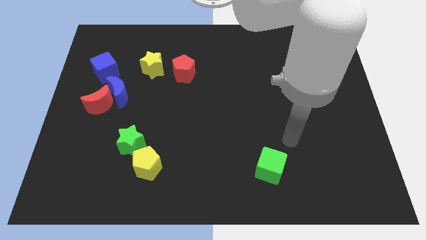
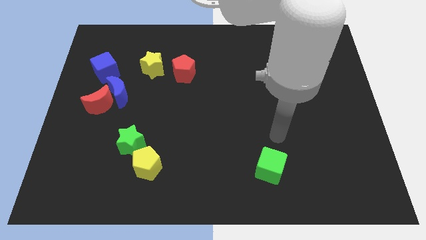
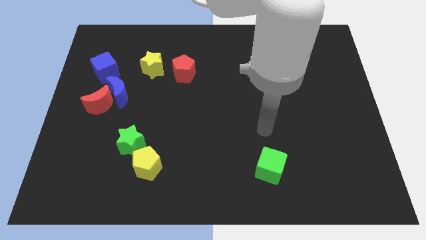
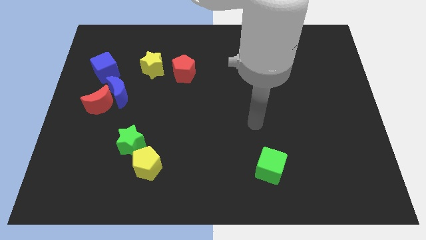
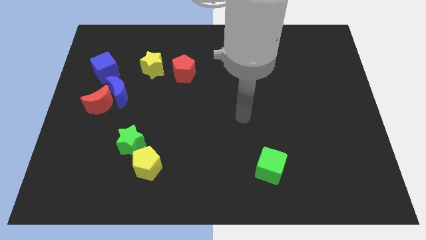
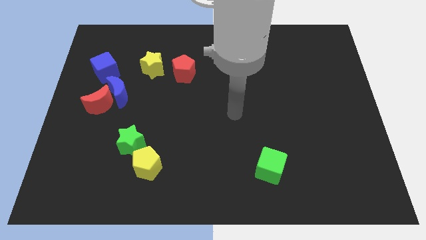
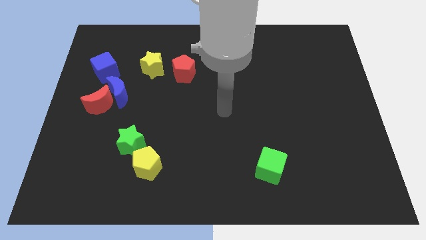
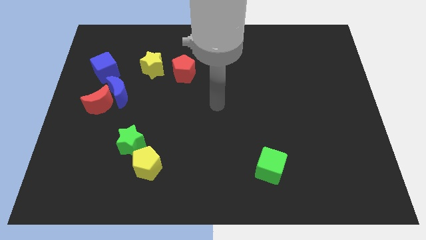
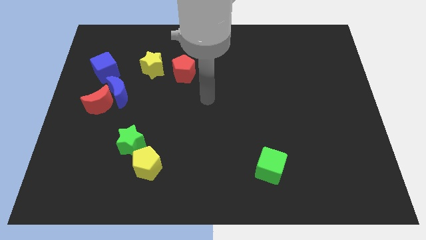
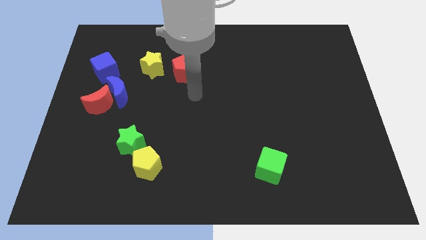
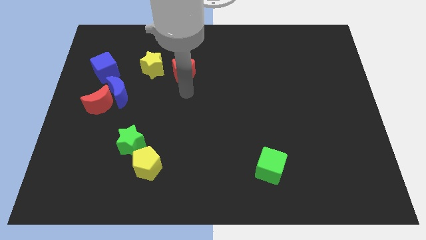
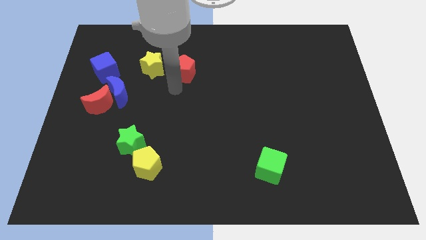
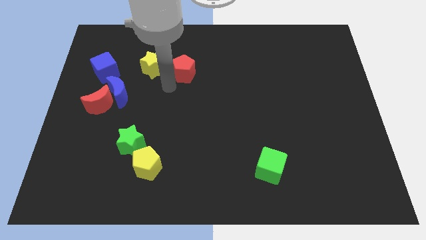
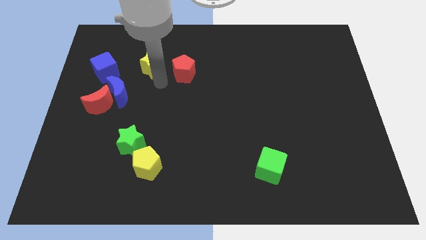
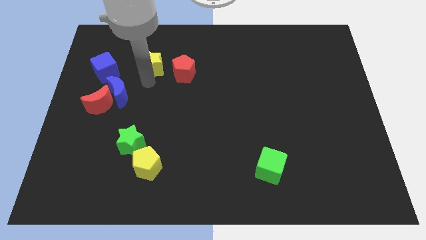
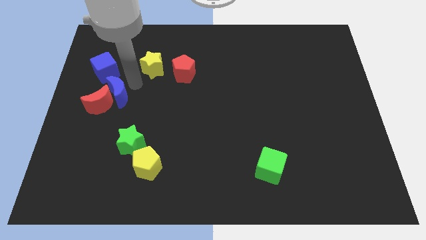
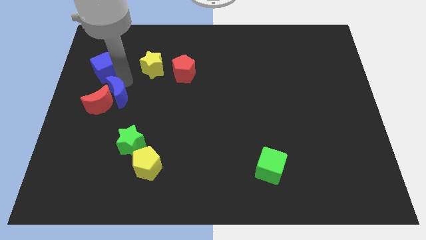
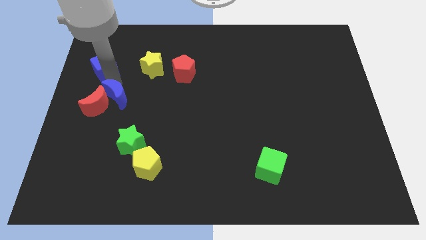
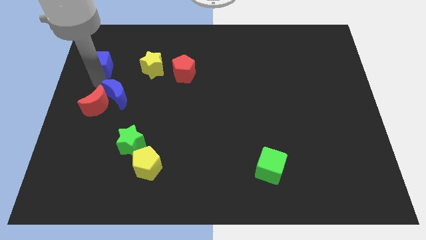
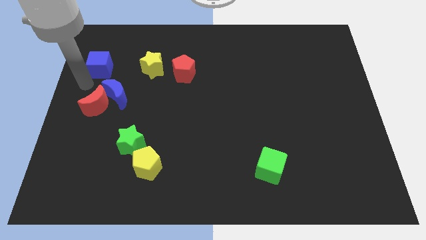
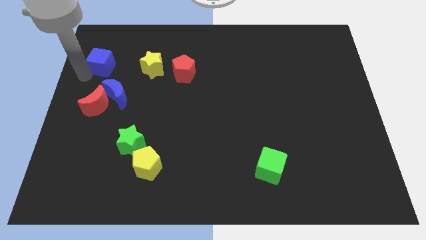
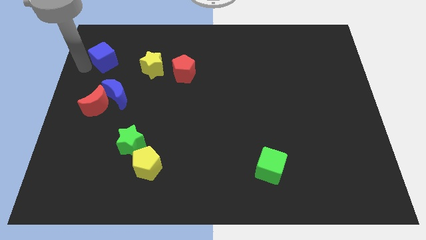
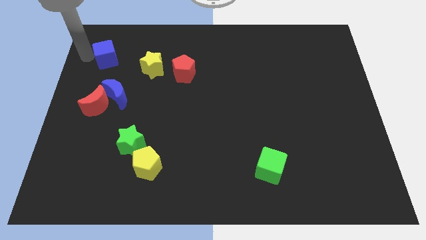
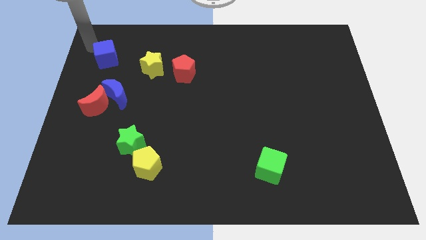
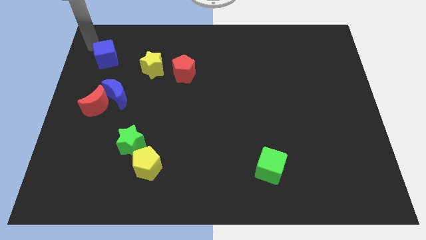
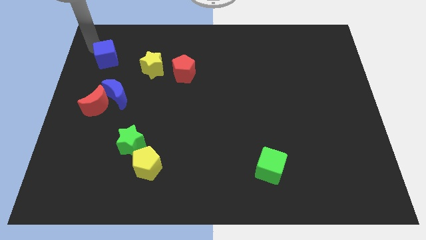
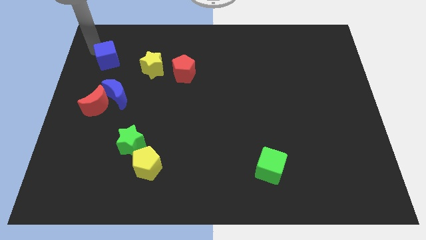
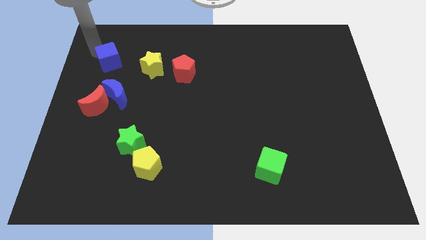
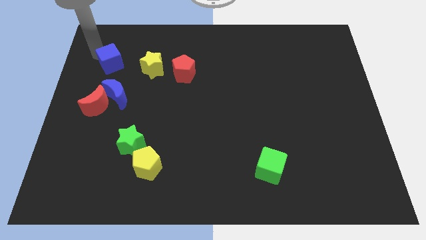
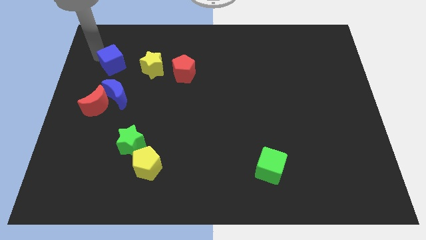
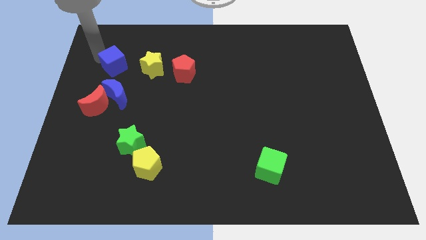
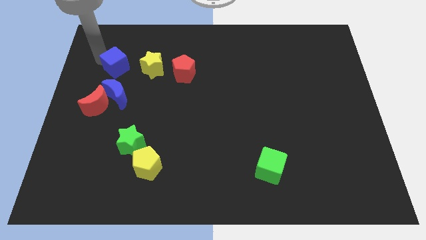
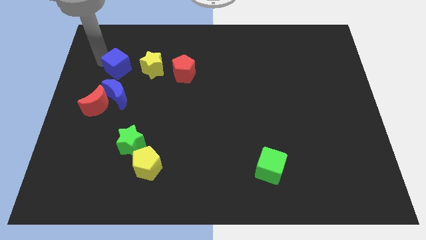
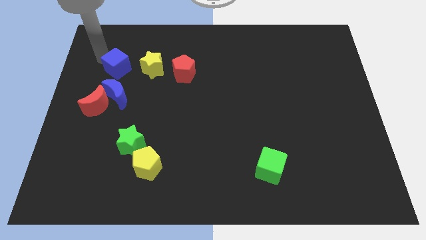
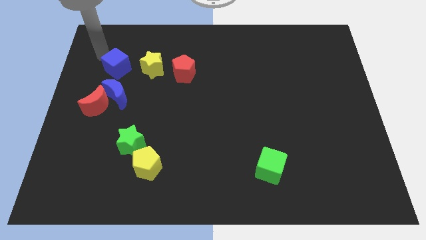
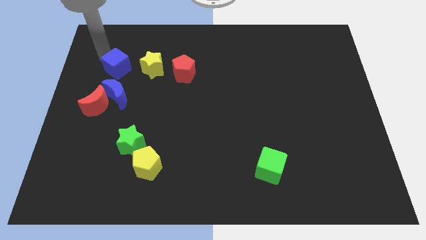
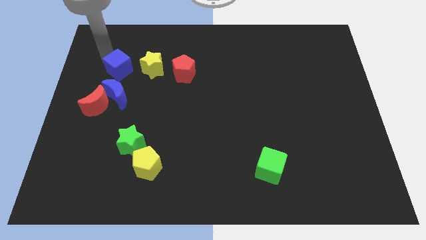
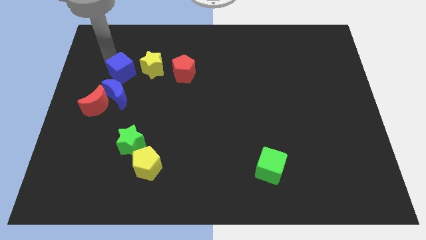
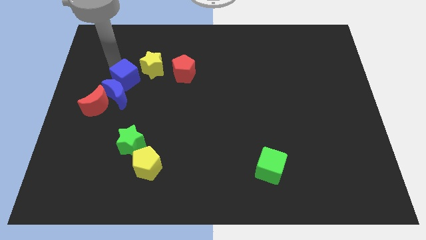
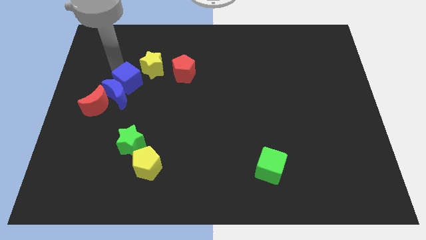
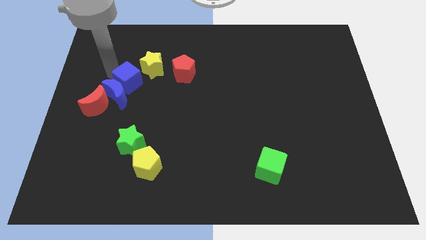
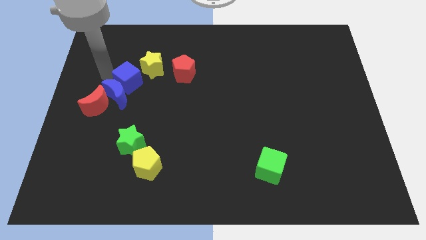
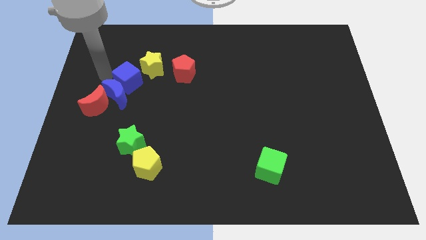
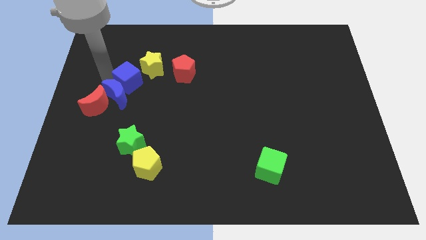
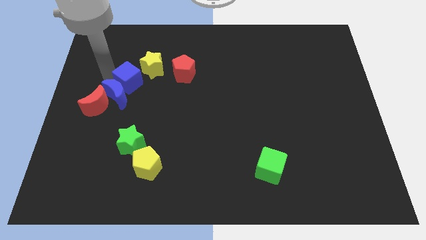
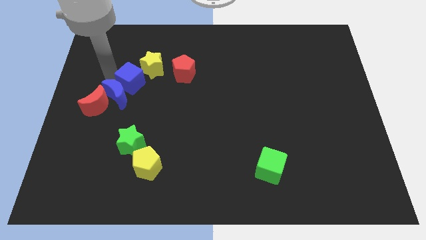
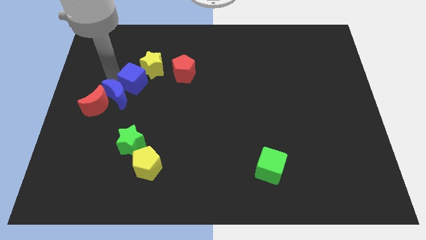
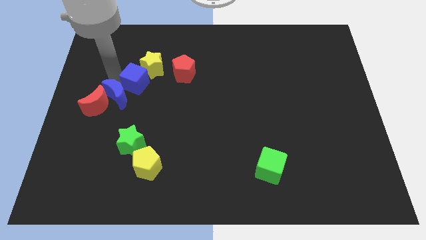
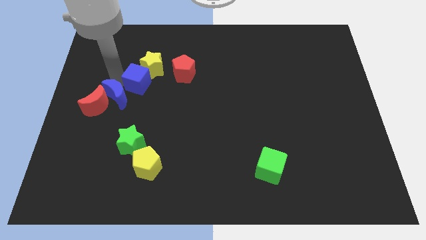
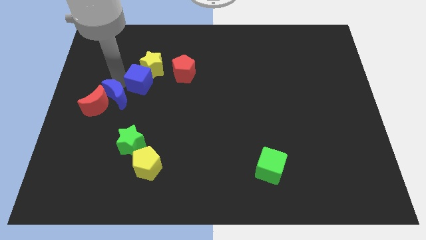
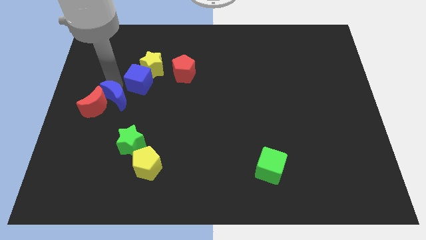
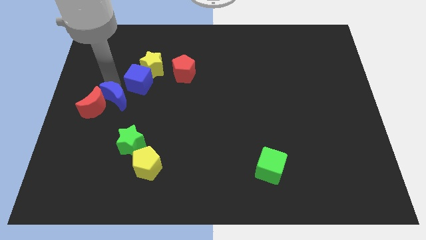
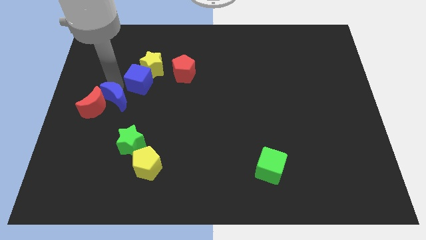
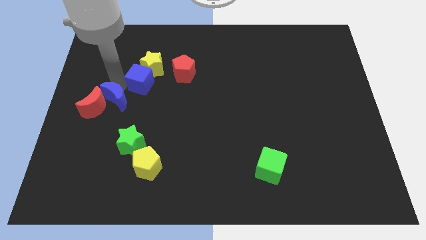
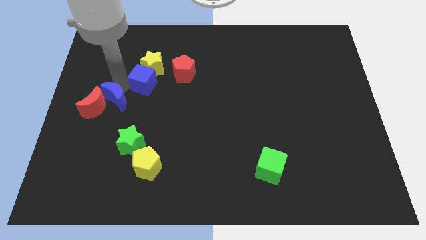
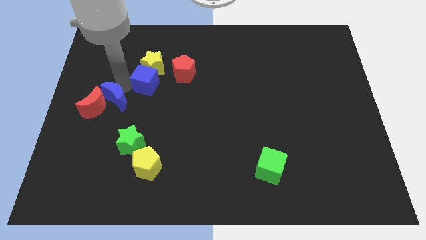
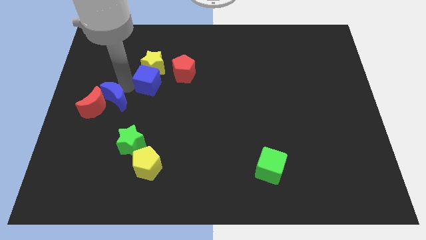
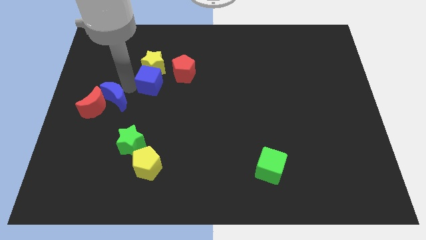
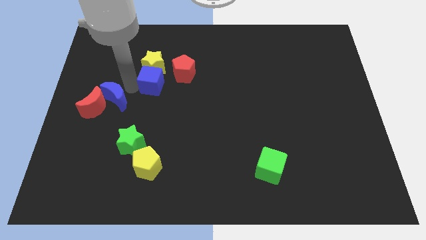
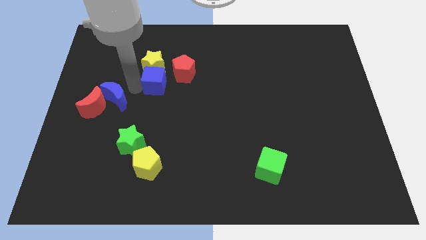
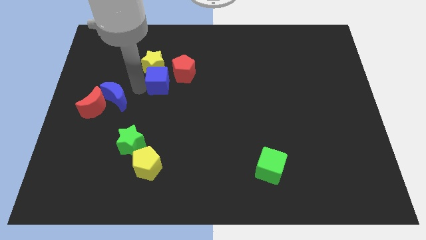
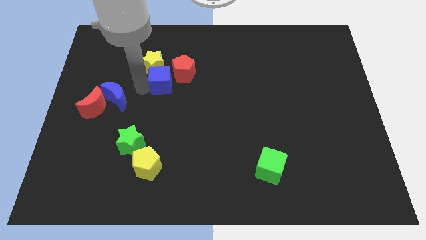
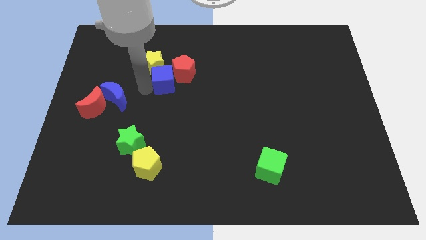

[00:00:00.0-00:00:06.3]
push the blue cube to the red pentagon
